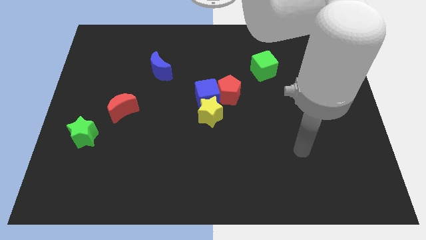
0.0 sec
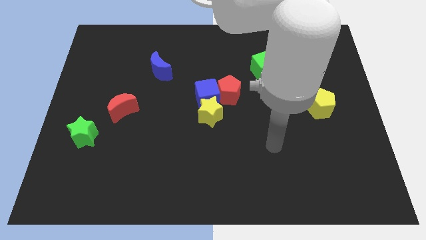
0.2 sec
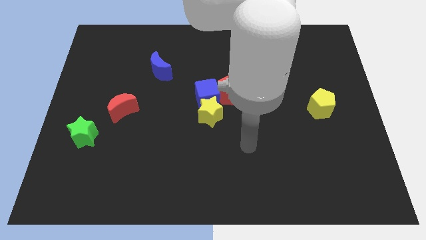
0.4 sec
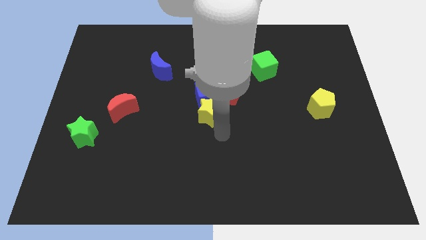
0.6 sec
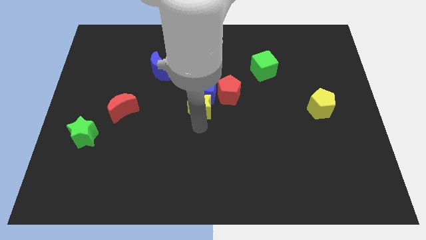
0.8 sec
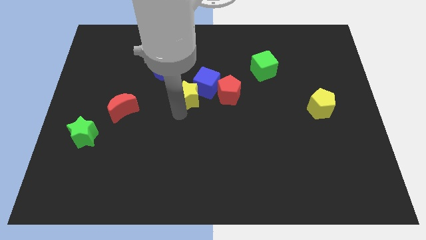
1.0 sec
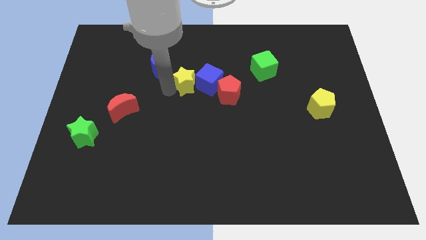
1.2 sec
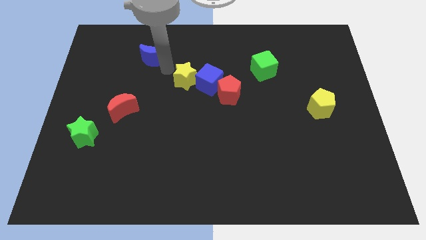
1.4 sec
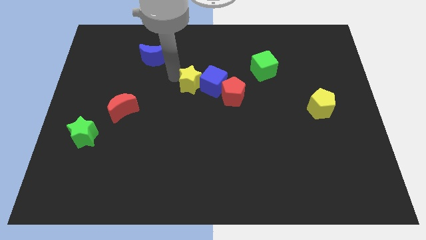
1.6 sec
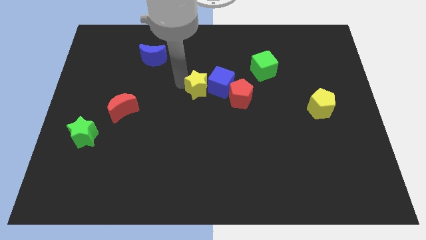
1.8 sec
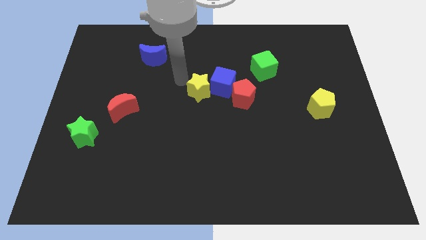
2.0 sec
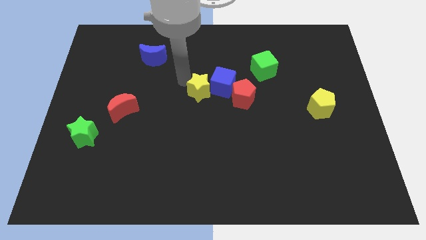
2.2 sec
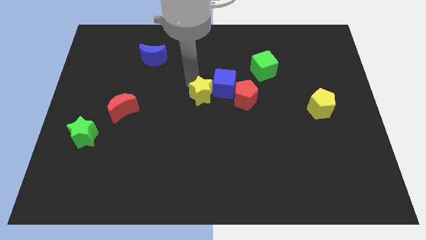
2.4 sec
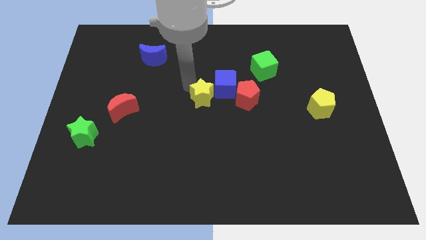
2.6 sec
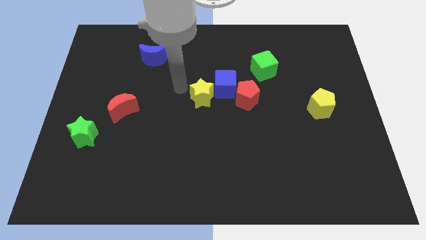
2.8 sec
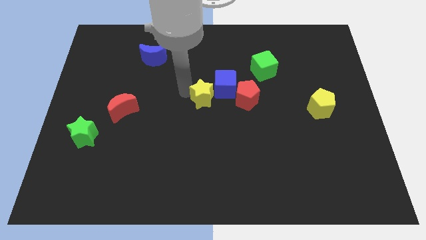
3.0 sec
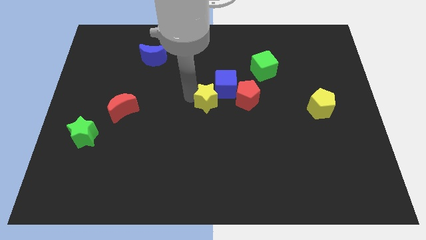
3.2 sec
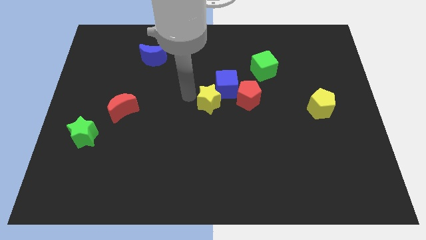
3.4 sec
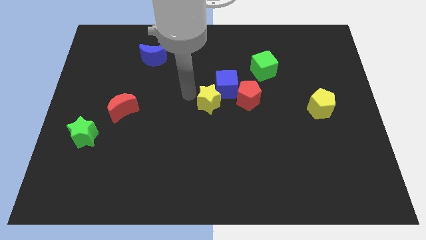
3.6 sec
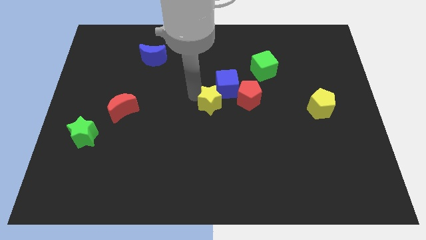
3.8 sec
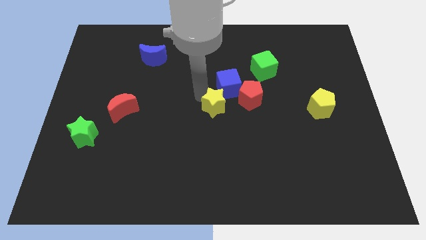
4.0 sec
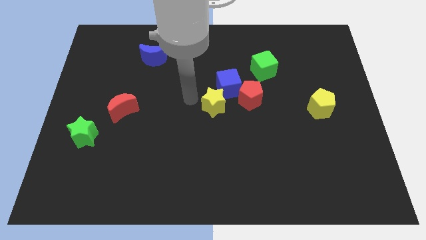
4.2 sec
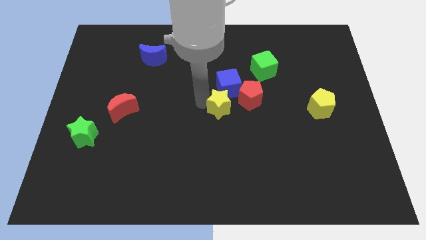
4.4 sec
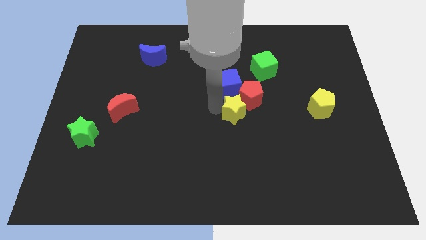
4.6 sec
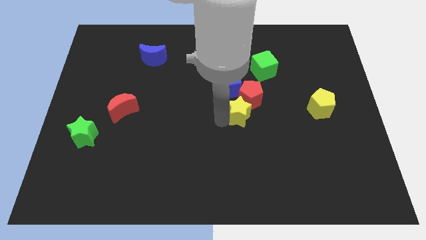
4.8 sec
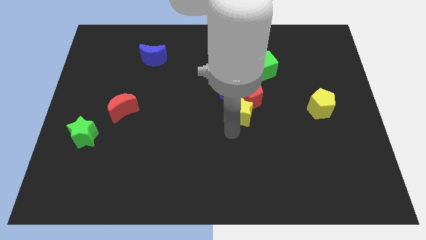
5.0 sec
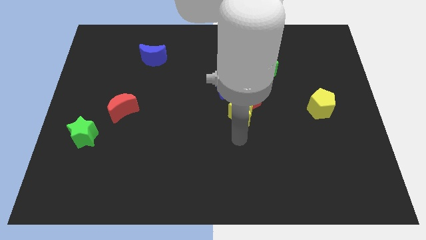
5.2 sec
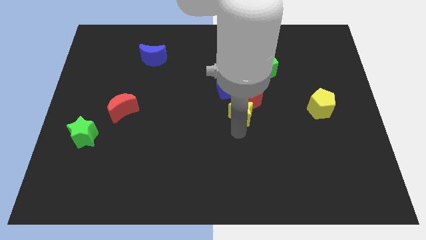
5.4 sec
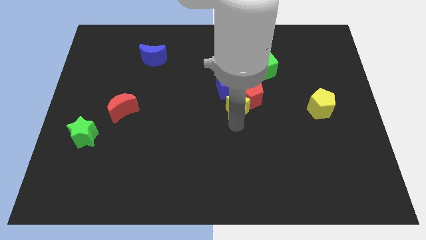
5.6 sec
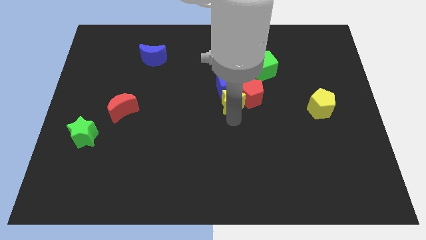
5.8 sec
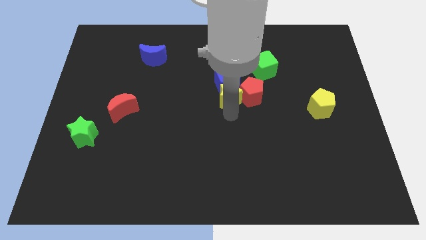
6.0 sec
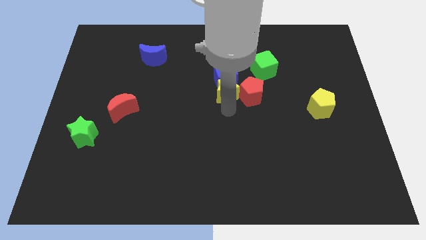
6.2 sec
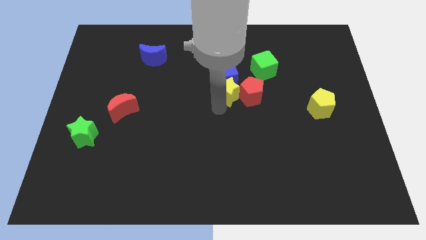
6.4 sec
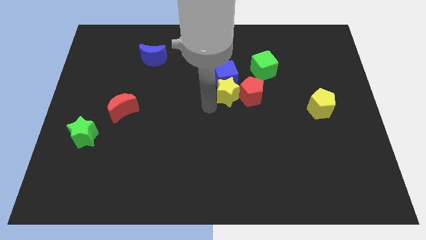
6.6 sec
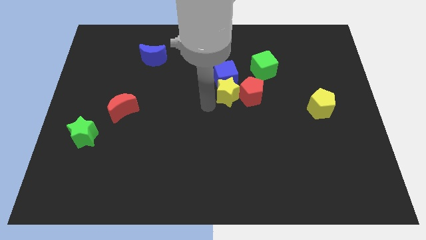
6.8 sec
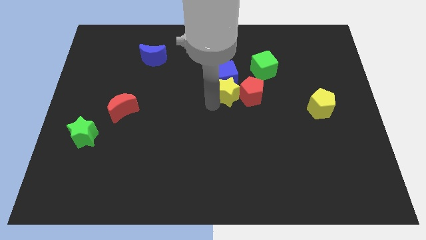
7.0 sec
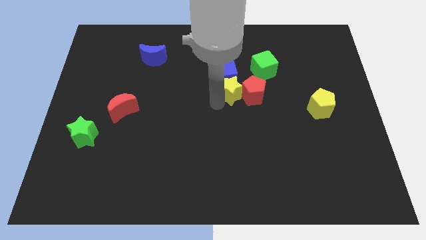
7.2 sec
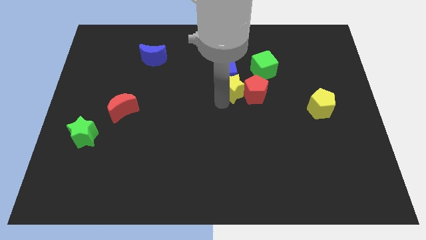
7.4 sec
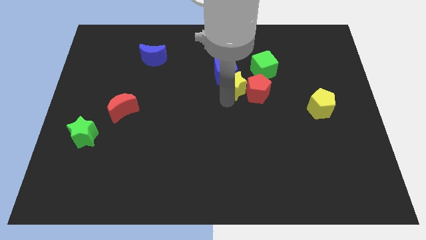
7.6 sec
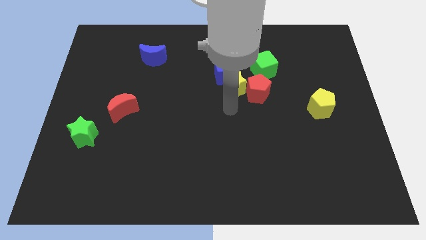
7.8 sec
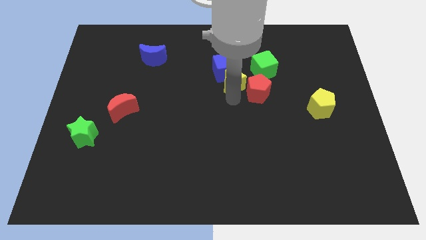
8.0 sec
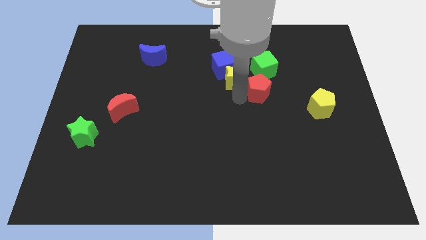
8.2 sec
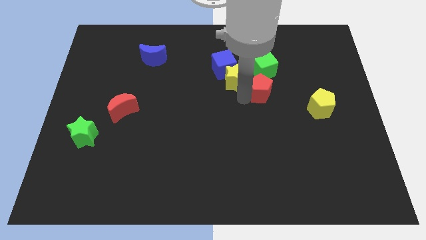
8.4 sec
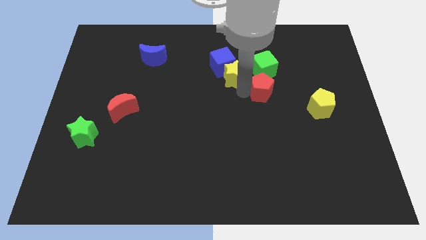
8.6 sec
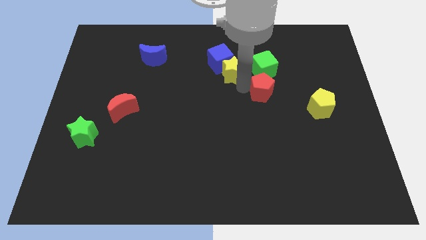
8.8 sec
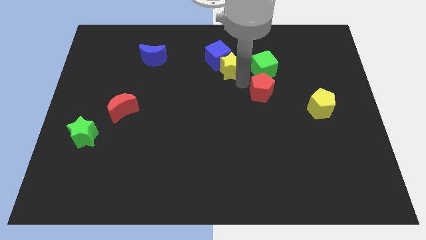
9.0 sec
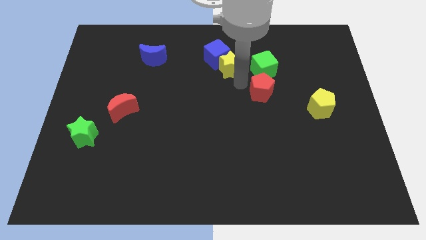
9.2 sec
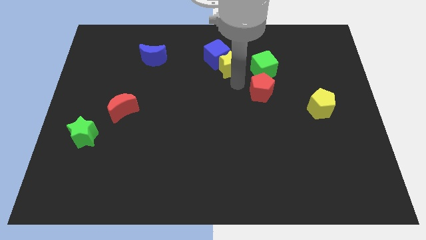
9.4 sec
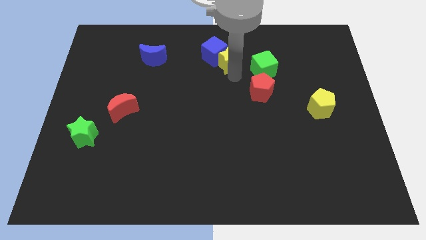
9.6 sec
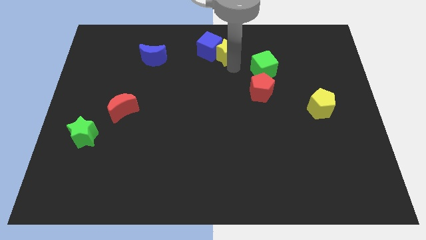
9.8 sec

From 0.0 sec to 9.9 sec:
slide the yellow star to the top

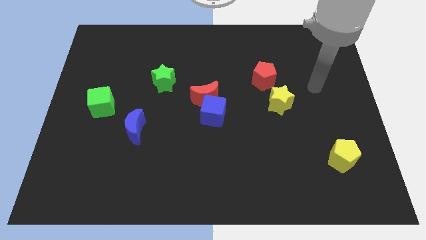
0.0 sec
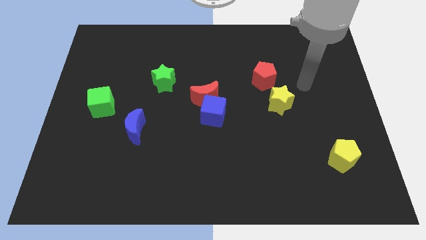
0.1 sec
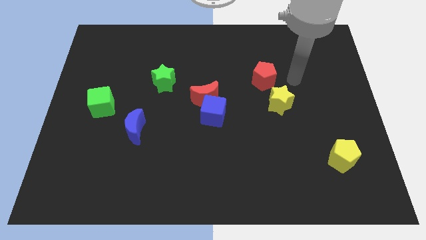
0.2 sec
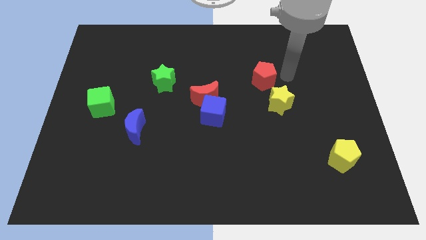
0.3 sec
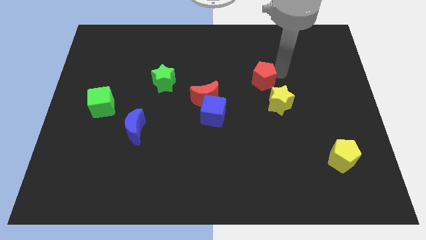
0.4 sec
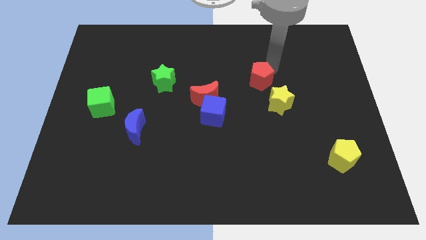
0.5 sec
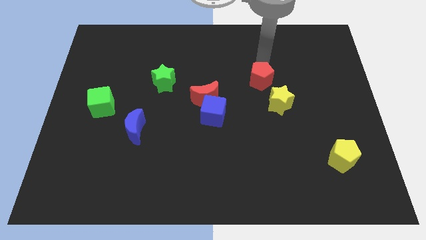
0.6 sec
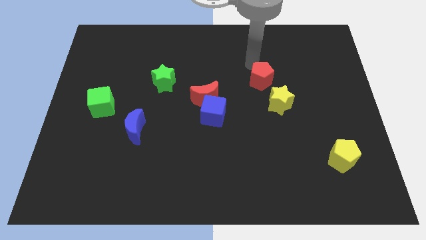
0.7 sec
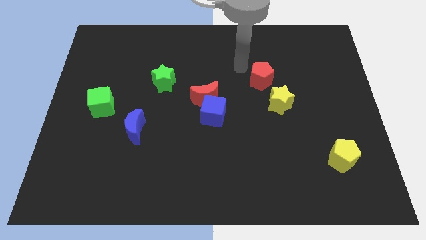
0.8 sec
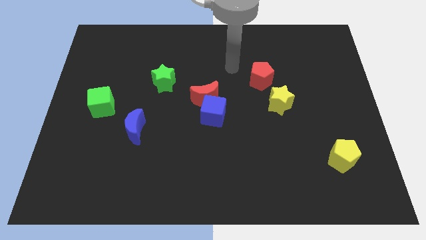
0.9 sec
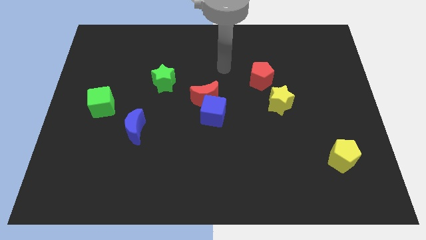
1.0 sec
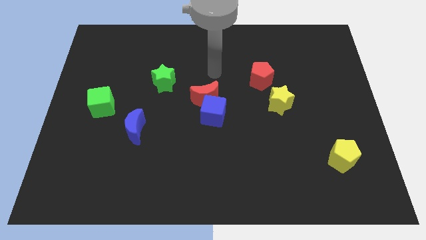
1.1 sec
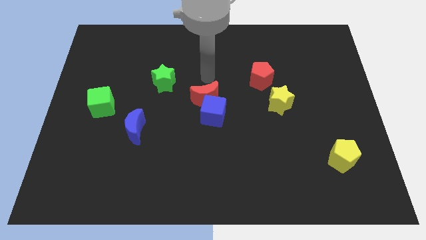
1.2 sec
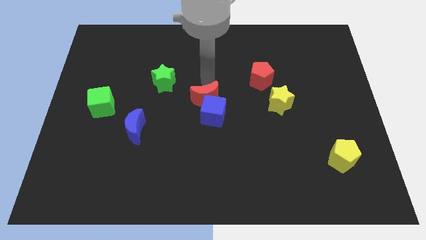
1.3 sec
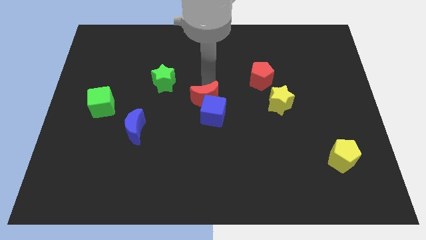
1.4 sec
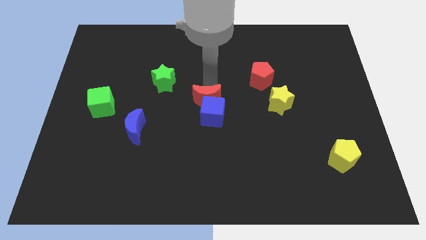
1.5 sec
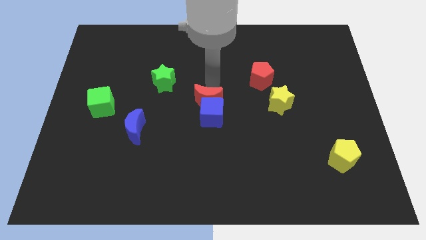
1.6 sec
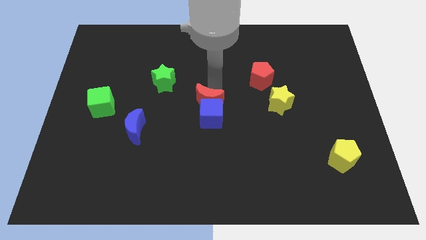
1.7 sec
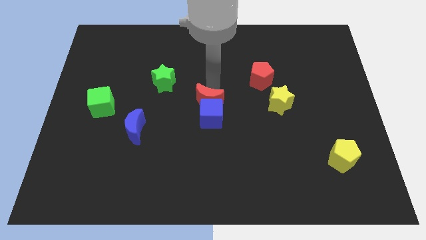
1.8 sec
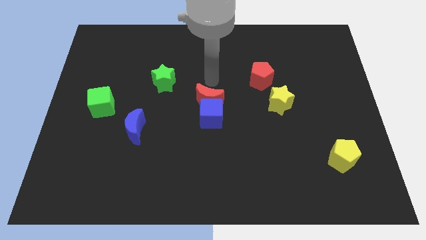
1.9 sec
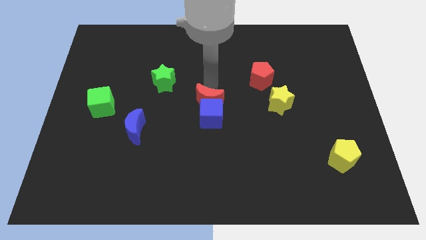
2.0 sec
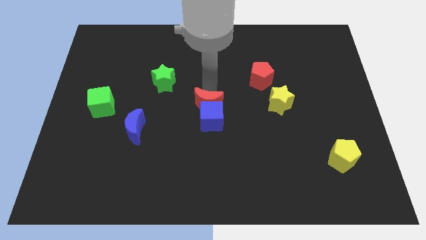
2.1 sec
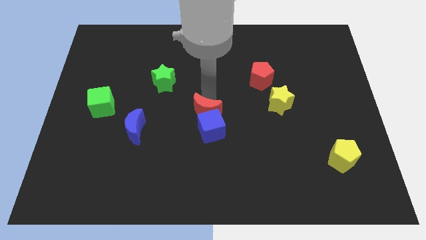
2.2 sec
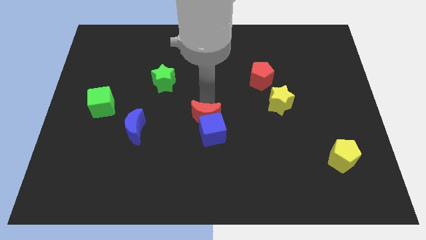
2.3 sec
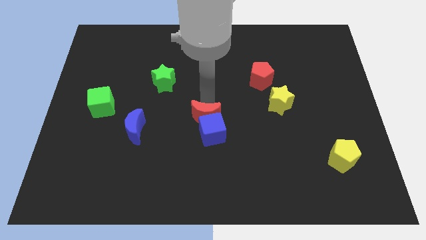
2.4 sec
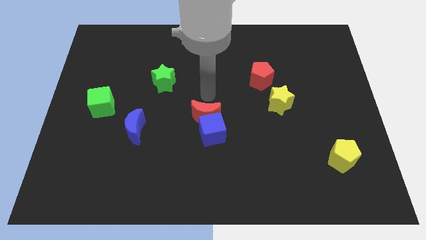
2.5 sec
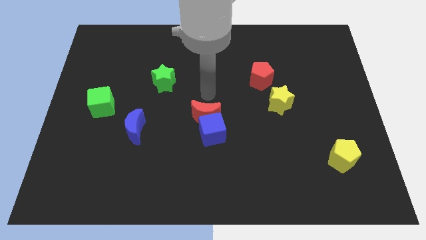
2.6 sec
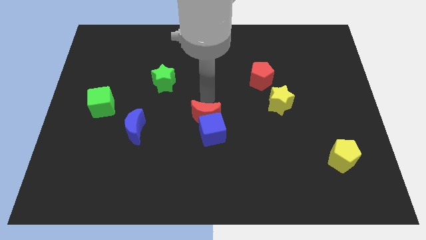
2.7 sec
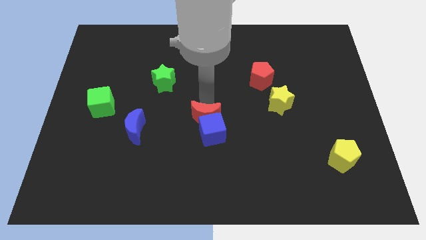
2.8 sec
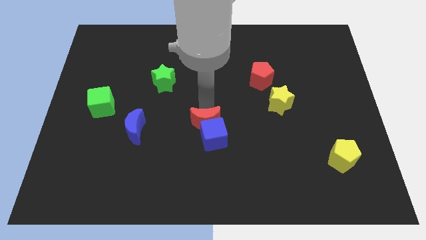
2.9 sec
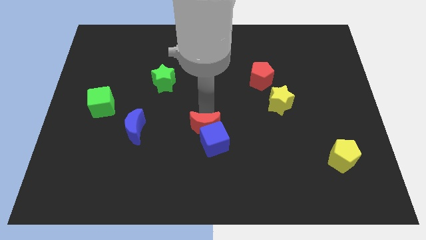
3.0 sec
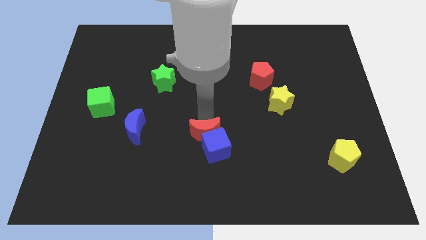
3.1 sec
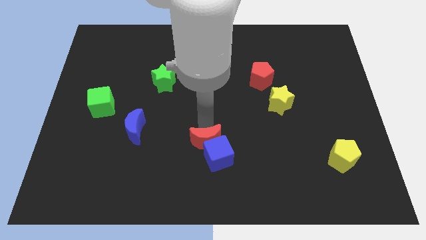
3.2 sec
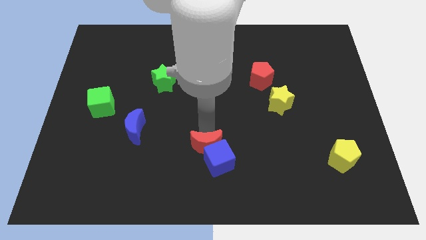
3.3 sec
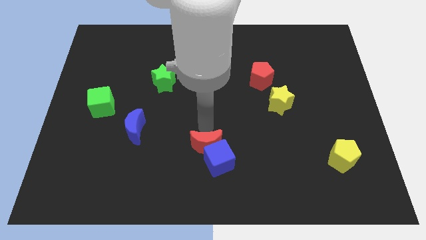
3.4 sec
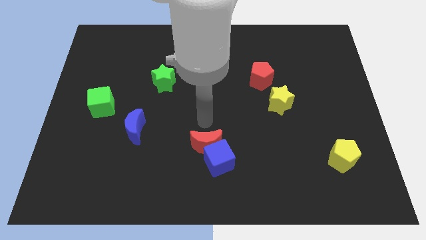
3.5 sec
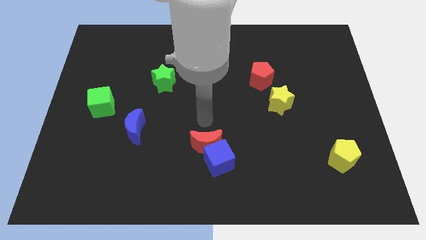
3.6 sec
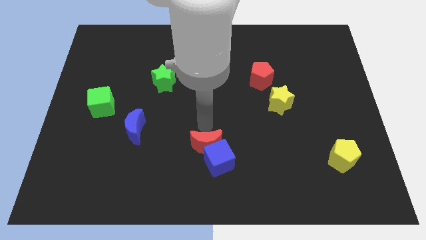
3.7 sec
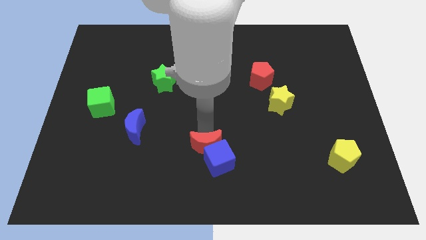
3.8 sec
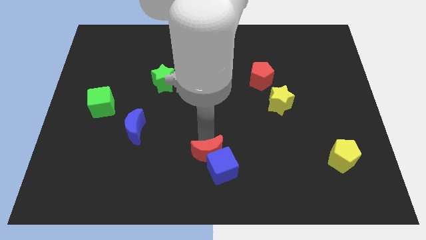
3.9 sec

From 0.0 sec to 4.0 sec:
move the red moon to the bottom
